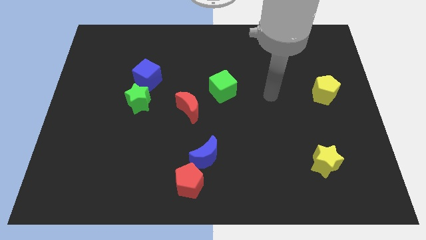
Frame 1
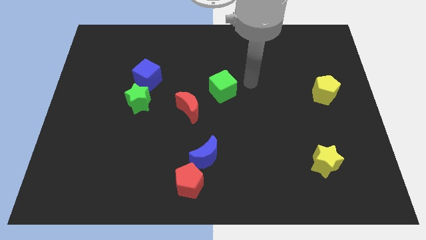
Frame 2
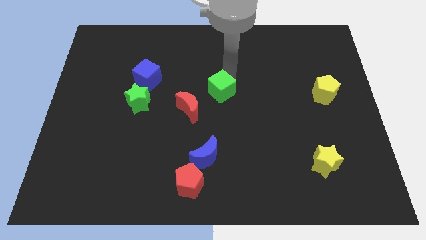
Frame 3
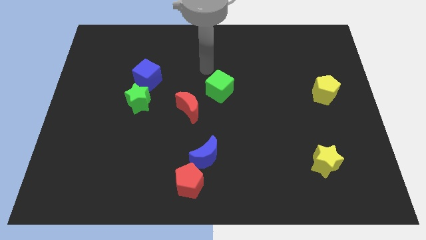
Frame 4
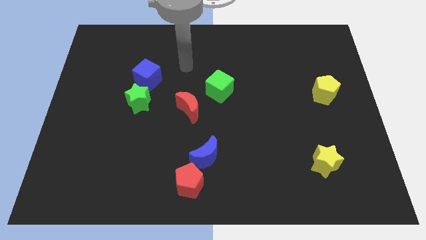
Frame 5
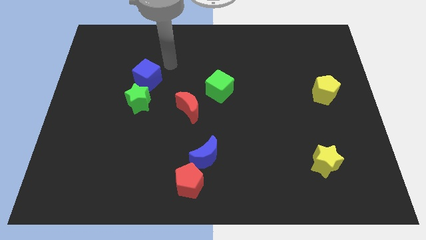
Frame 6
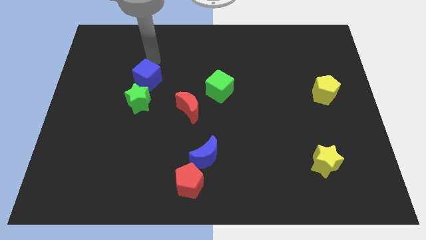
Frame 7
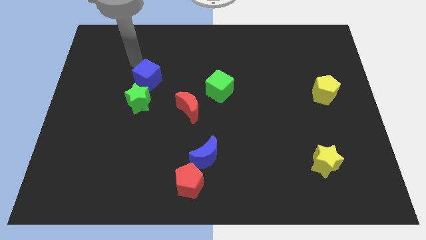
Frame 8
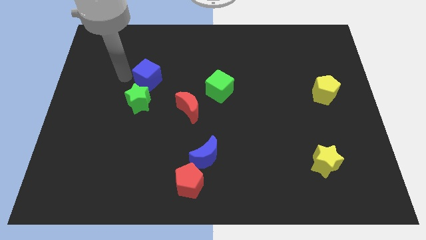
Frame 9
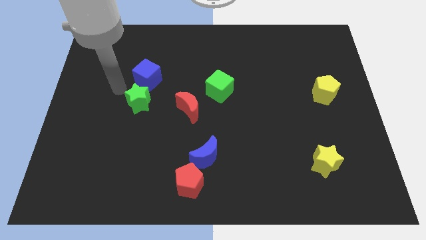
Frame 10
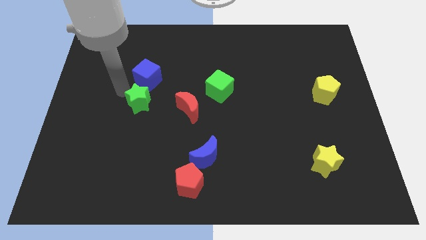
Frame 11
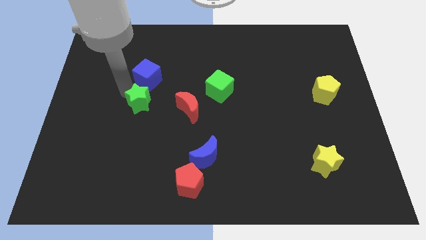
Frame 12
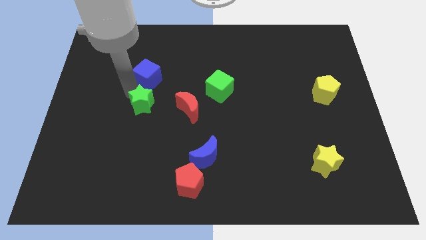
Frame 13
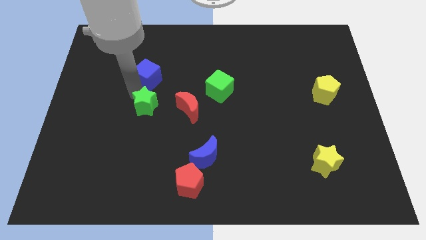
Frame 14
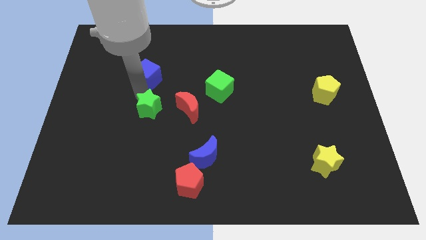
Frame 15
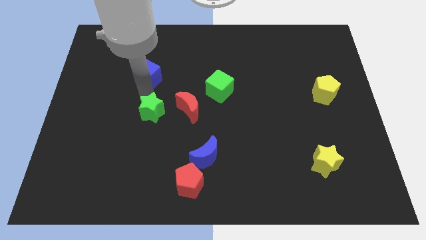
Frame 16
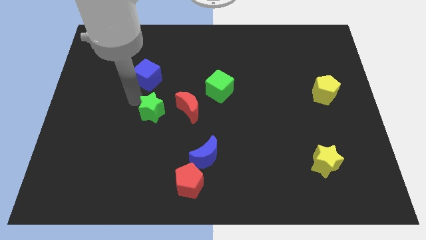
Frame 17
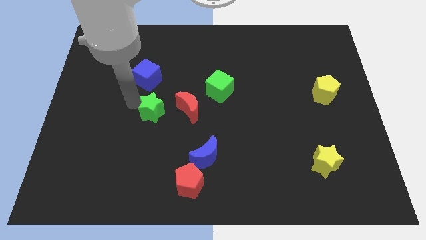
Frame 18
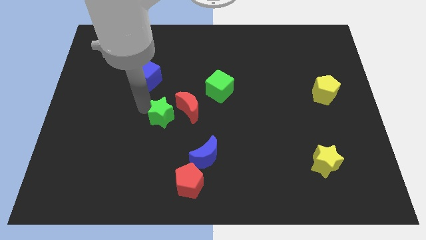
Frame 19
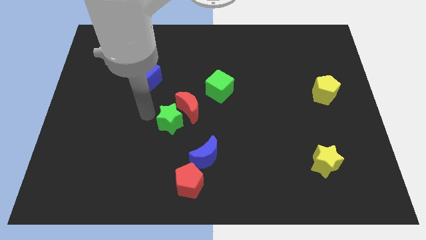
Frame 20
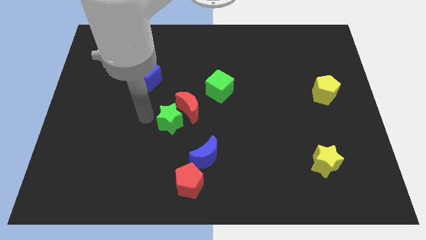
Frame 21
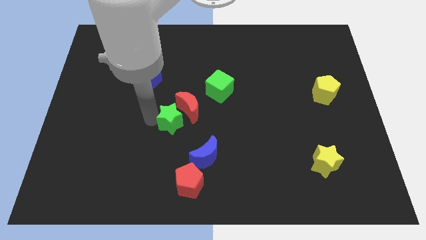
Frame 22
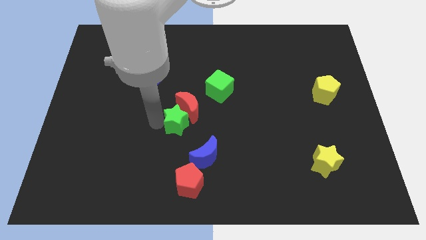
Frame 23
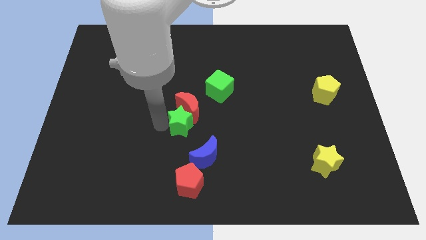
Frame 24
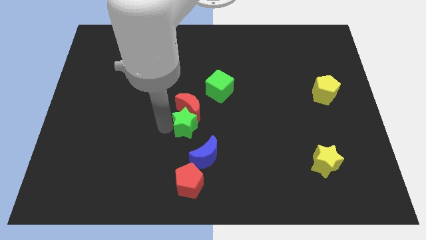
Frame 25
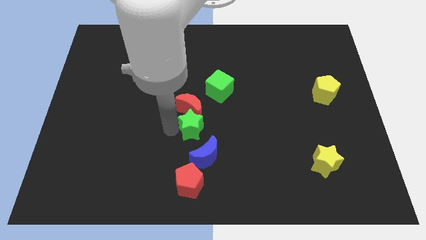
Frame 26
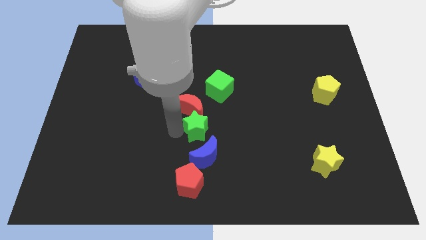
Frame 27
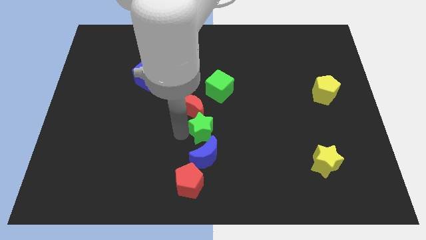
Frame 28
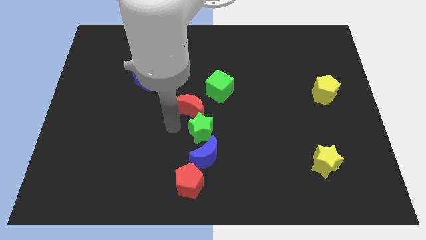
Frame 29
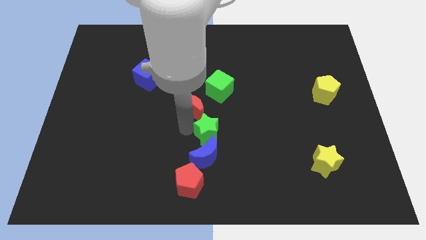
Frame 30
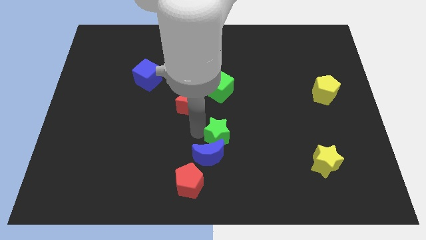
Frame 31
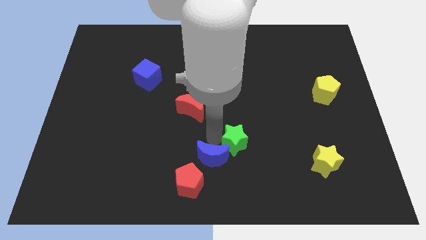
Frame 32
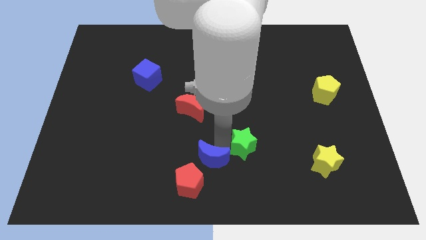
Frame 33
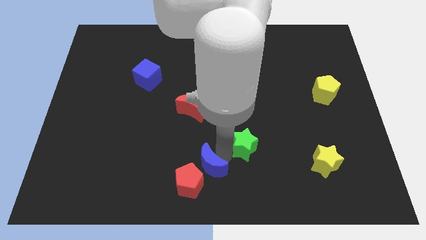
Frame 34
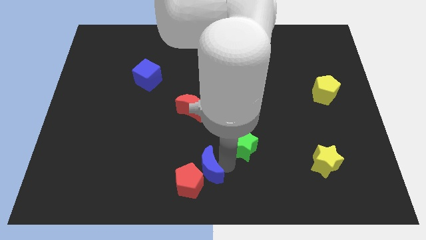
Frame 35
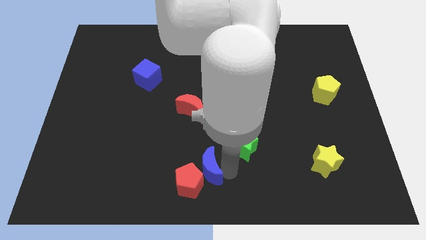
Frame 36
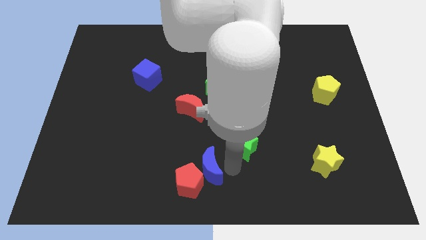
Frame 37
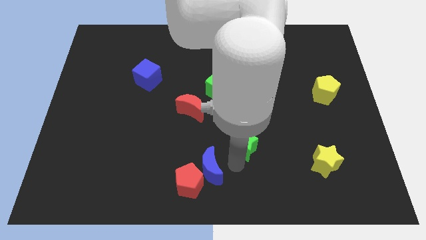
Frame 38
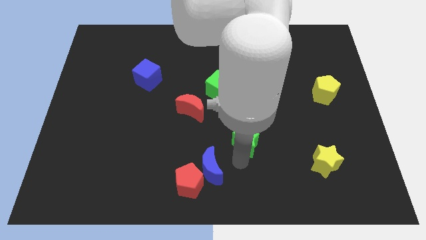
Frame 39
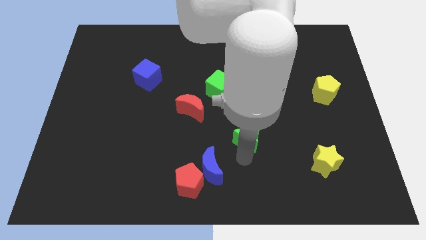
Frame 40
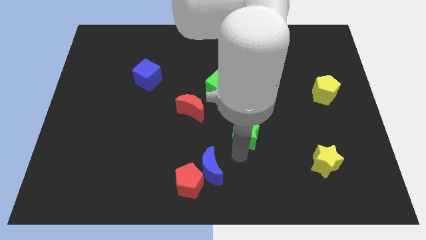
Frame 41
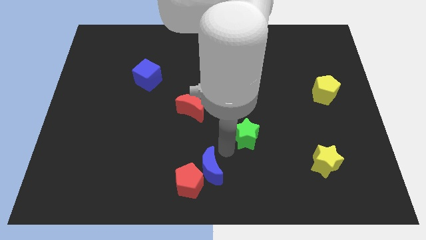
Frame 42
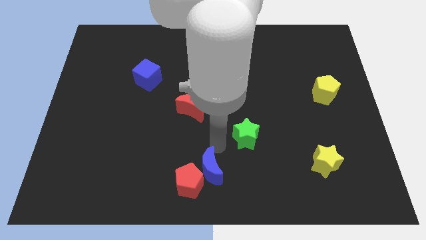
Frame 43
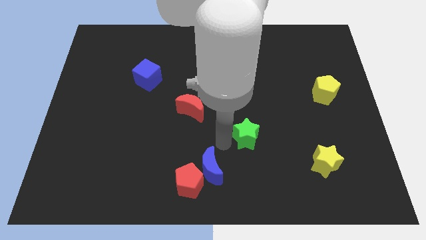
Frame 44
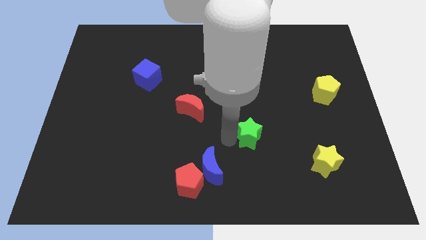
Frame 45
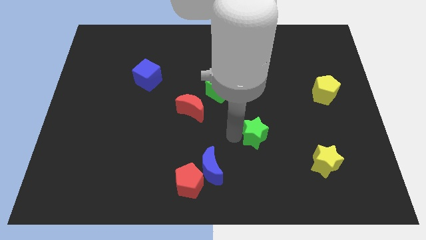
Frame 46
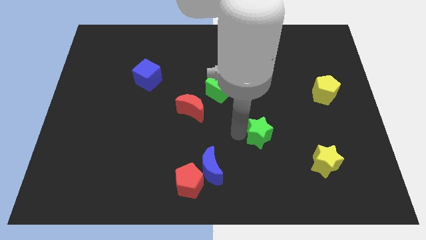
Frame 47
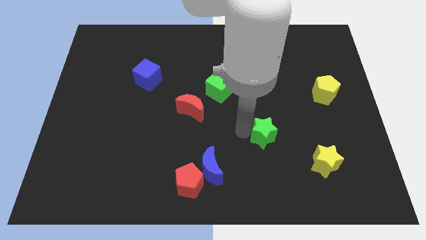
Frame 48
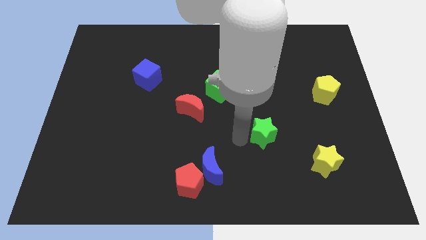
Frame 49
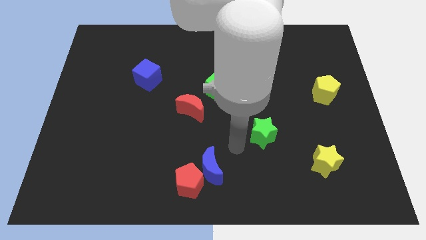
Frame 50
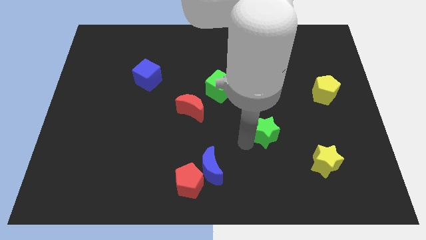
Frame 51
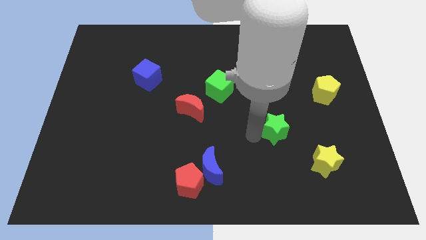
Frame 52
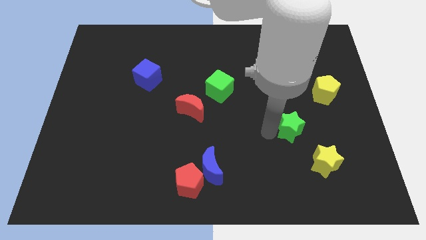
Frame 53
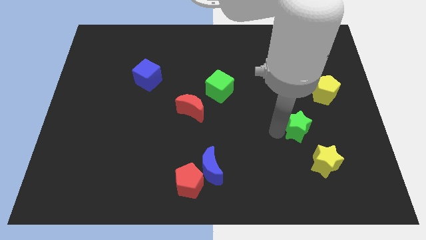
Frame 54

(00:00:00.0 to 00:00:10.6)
slide the green star to the top of the yellow star

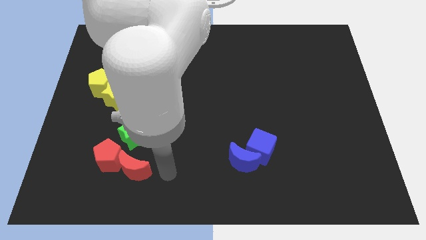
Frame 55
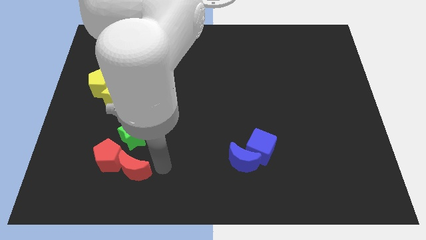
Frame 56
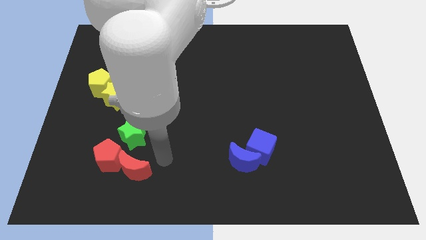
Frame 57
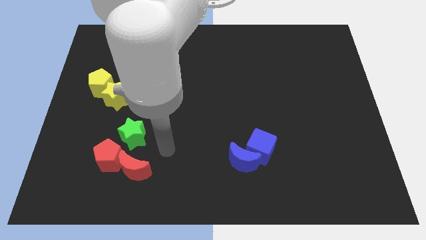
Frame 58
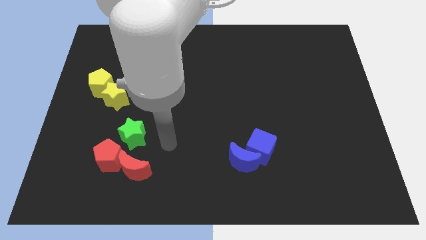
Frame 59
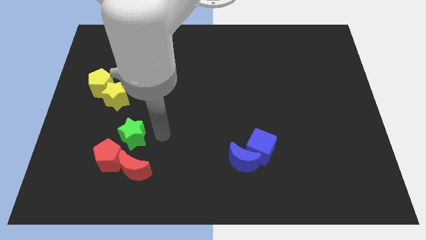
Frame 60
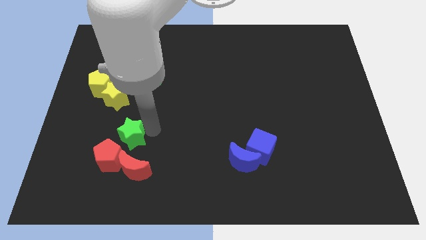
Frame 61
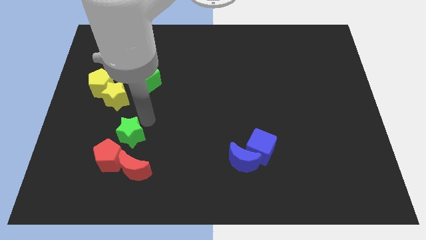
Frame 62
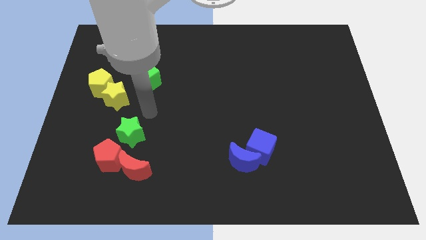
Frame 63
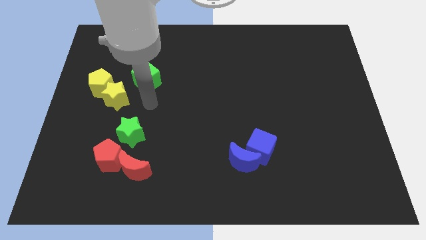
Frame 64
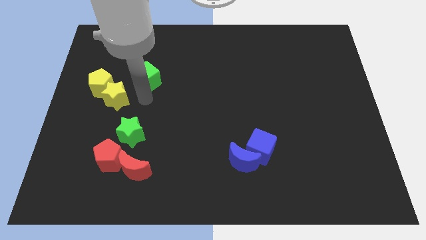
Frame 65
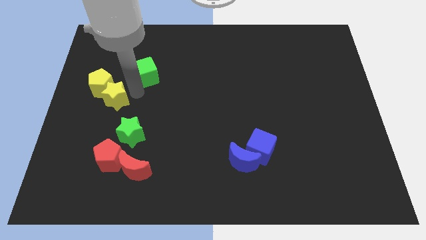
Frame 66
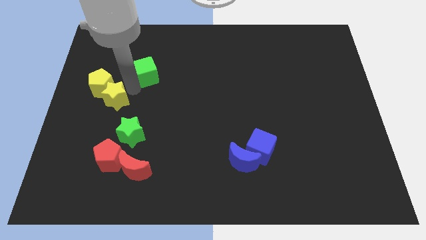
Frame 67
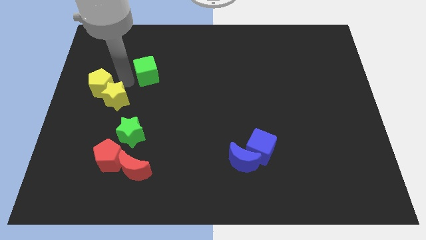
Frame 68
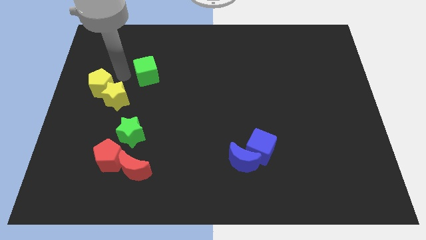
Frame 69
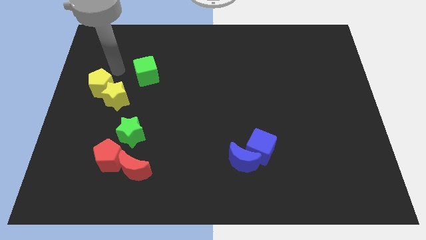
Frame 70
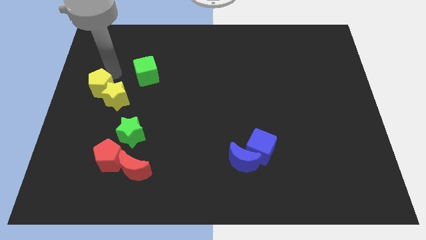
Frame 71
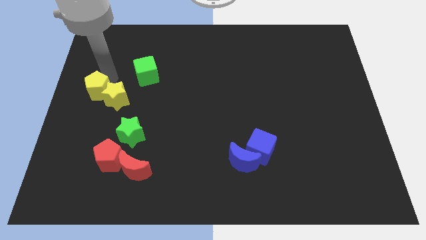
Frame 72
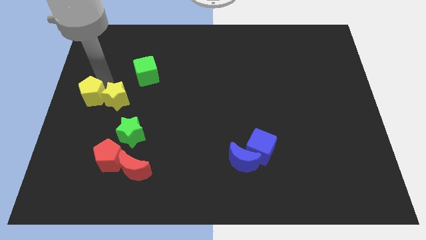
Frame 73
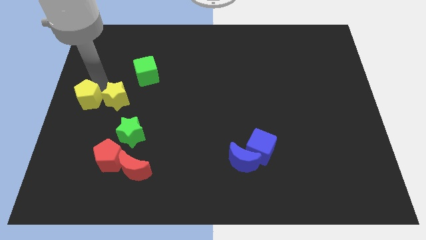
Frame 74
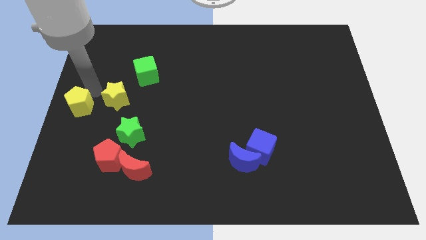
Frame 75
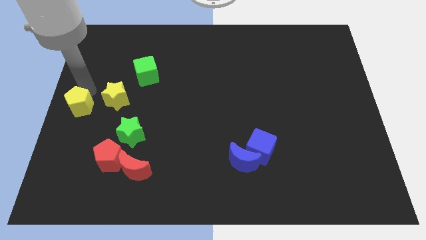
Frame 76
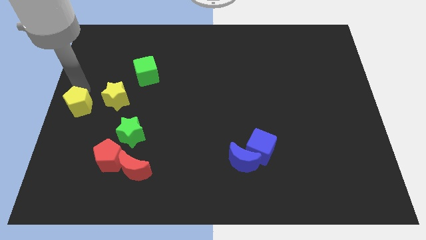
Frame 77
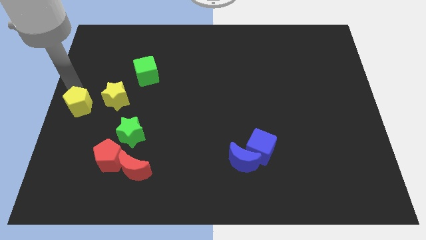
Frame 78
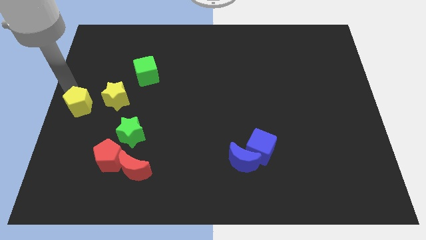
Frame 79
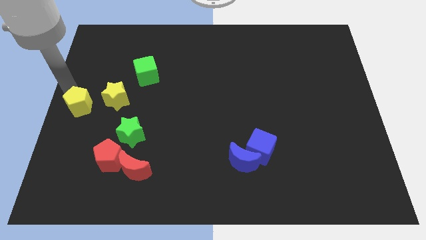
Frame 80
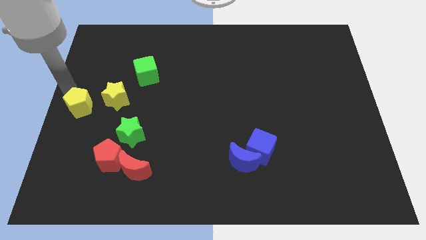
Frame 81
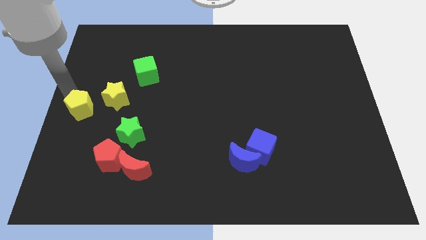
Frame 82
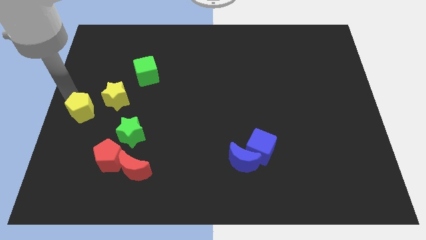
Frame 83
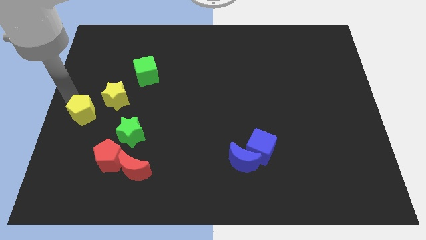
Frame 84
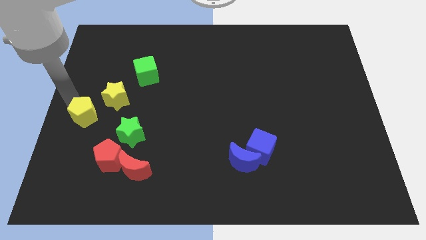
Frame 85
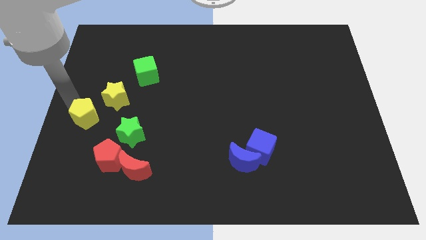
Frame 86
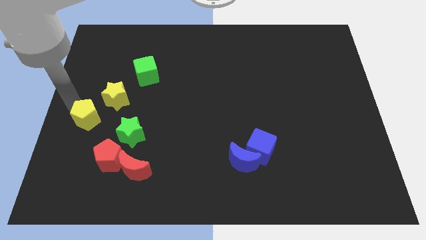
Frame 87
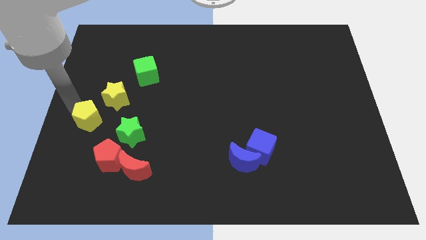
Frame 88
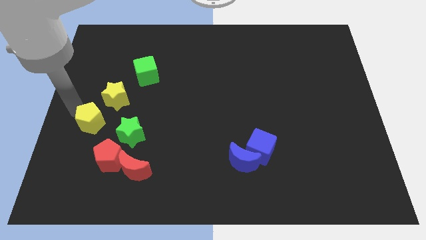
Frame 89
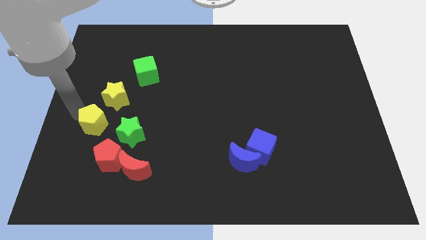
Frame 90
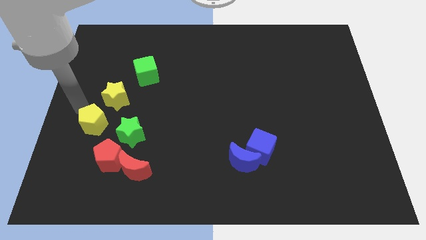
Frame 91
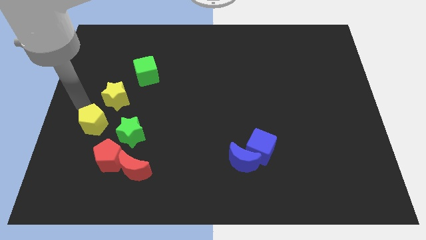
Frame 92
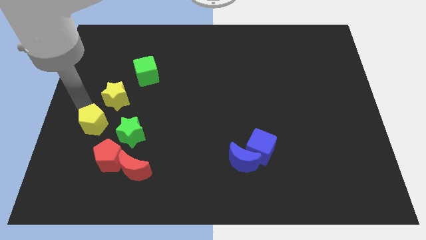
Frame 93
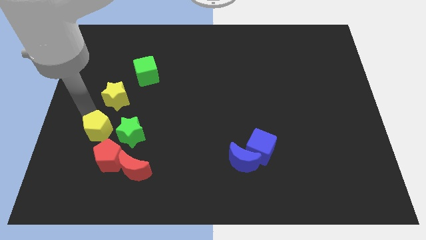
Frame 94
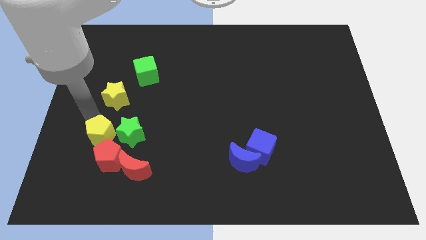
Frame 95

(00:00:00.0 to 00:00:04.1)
move the yellow pentagon diagonally up and to the left of the red moon
